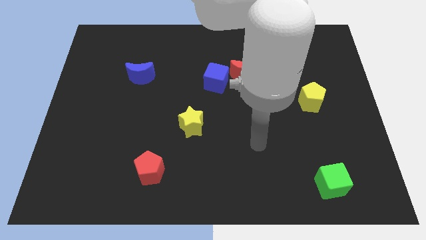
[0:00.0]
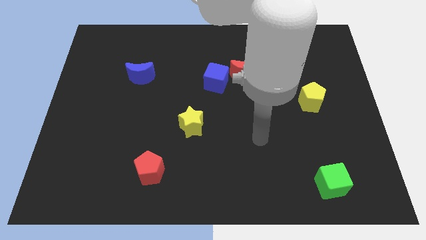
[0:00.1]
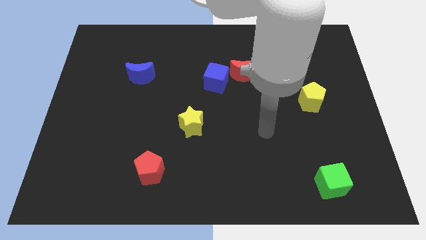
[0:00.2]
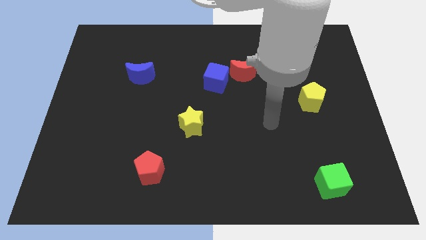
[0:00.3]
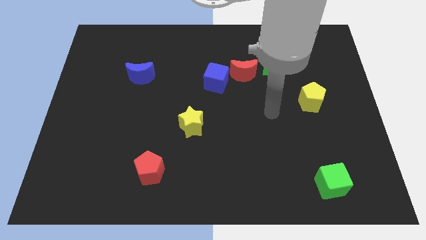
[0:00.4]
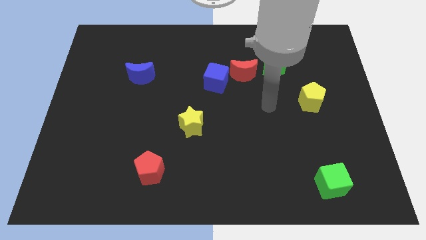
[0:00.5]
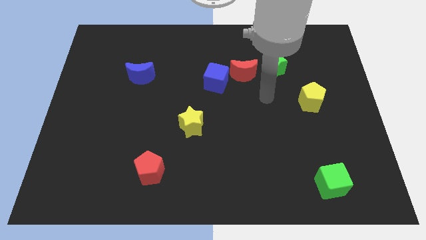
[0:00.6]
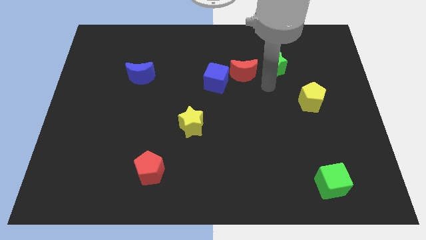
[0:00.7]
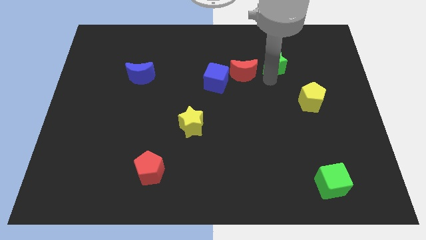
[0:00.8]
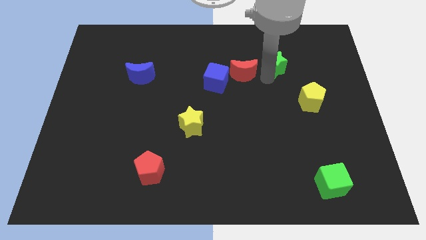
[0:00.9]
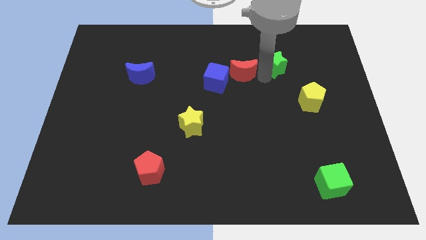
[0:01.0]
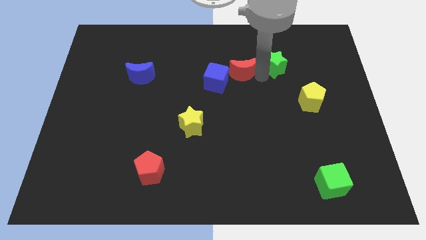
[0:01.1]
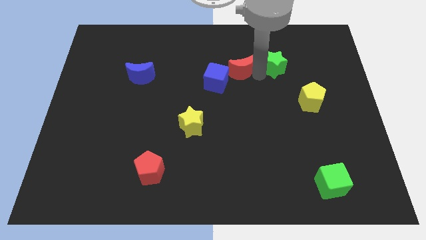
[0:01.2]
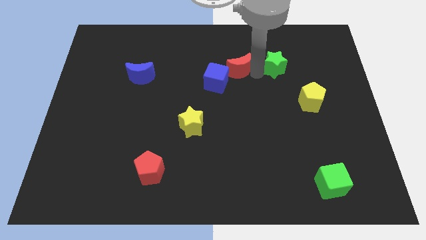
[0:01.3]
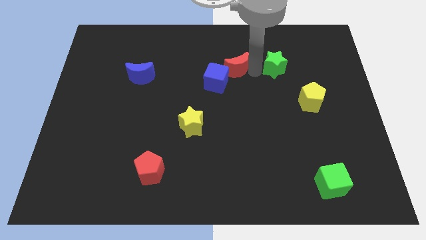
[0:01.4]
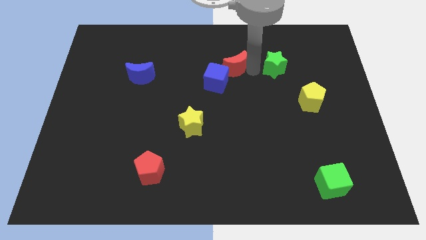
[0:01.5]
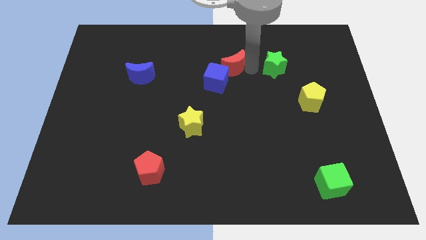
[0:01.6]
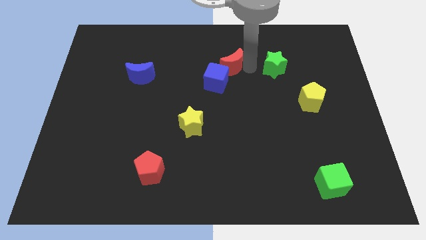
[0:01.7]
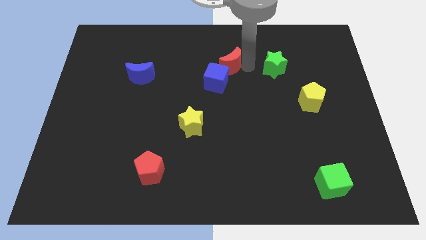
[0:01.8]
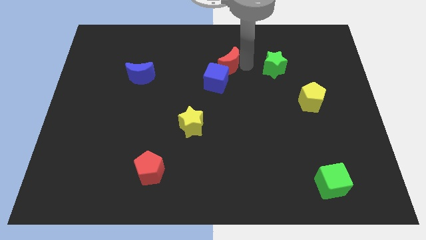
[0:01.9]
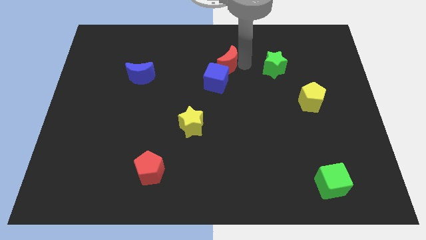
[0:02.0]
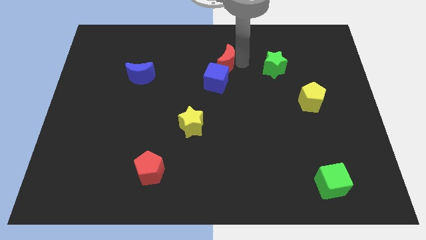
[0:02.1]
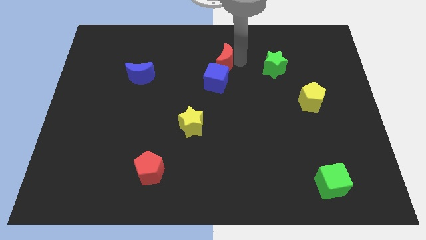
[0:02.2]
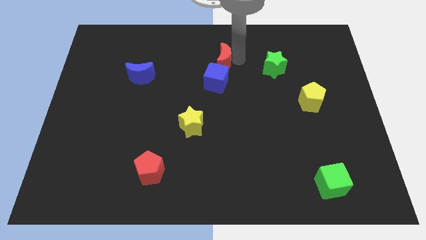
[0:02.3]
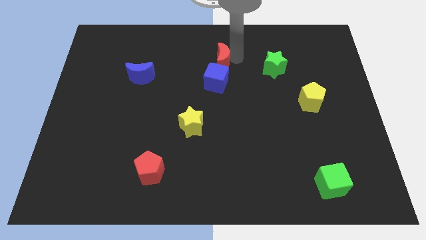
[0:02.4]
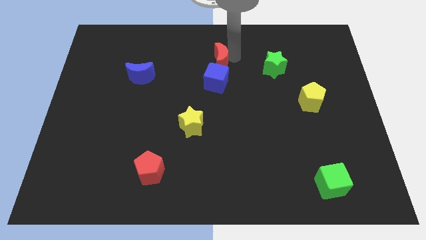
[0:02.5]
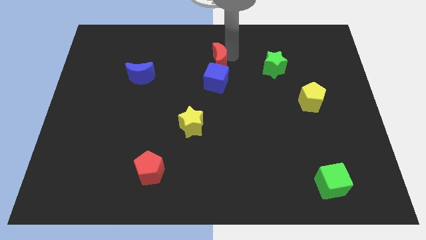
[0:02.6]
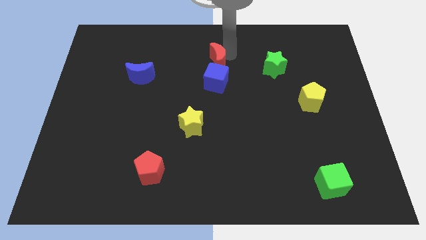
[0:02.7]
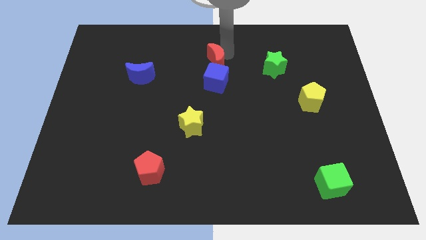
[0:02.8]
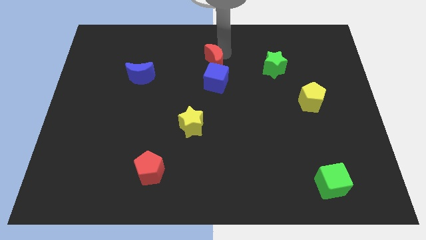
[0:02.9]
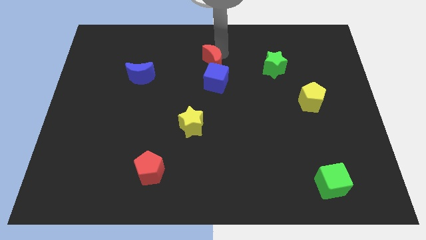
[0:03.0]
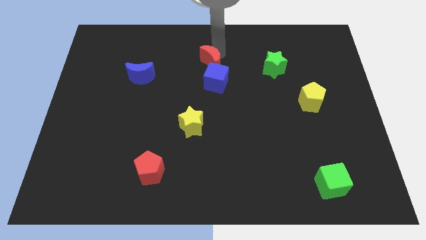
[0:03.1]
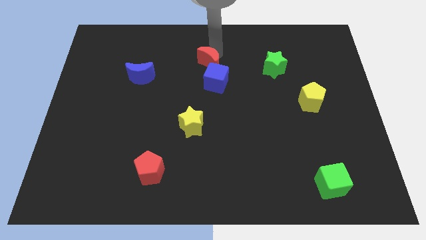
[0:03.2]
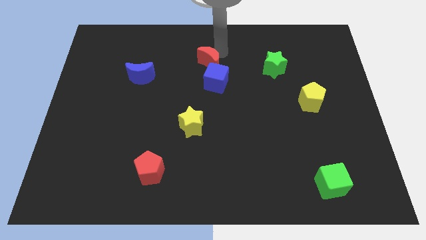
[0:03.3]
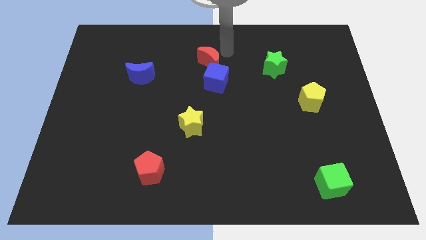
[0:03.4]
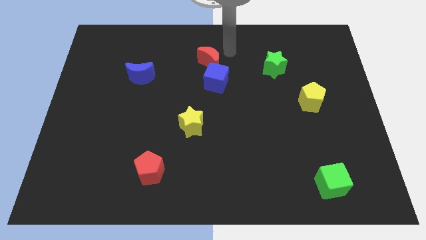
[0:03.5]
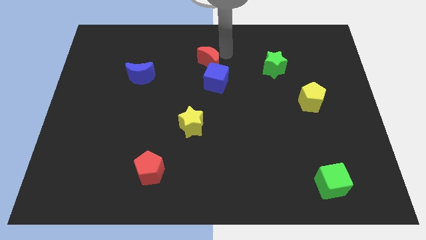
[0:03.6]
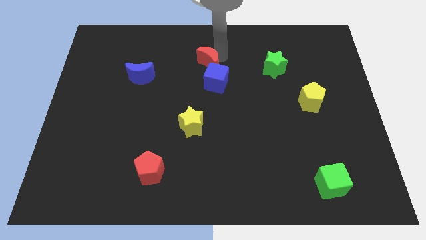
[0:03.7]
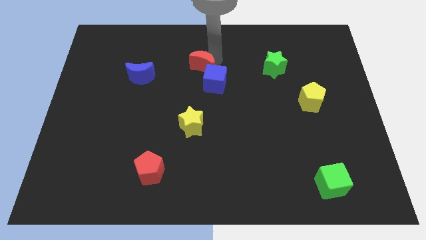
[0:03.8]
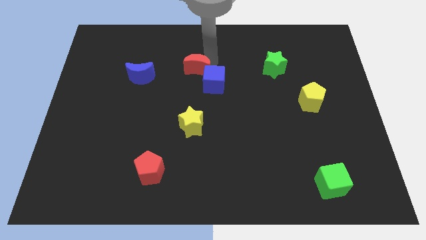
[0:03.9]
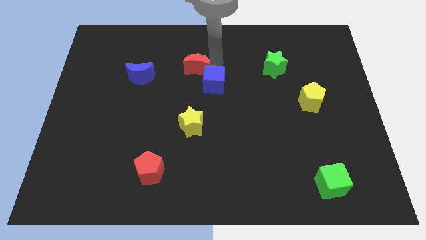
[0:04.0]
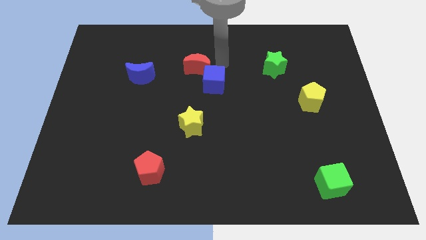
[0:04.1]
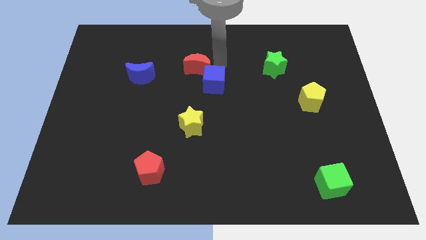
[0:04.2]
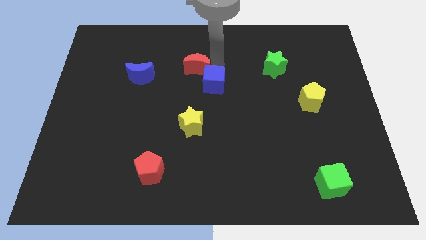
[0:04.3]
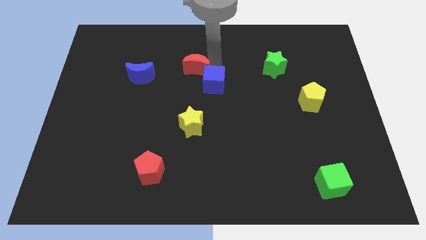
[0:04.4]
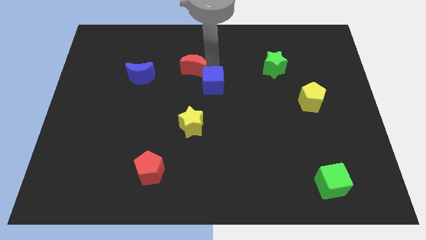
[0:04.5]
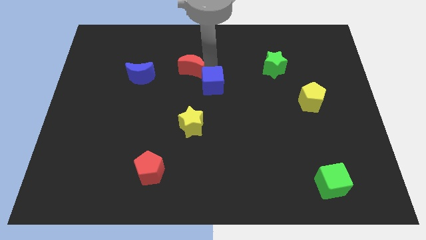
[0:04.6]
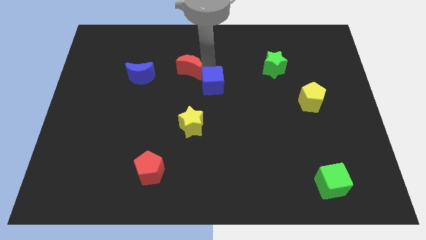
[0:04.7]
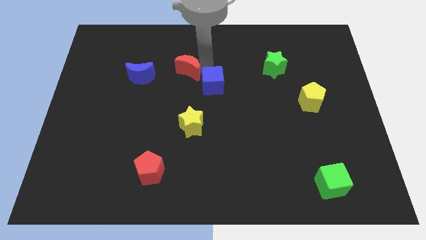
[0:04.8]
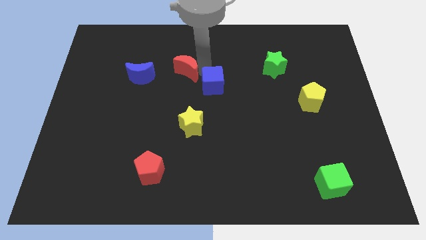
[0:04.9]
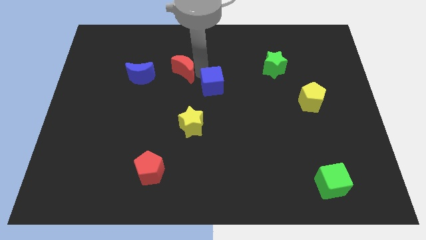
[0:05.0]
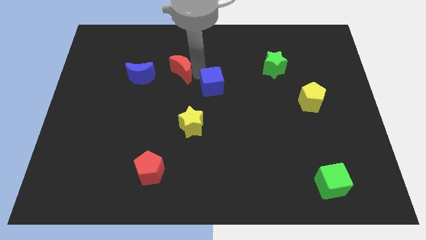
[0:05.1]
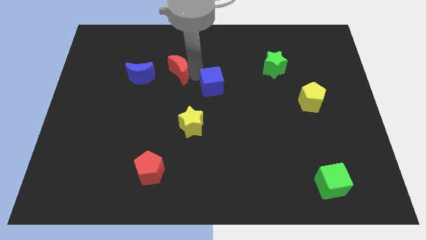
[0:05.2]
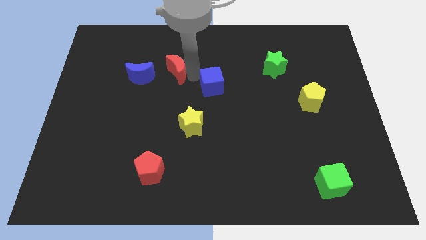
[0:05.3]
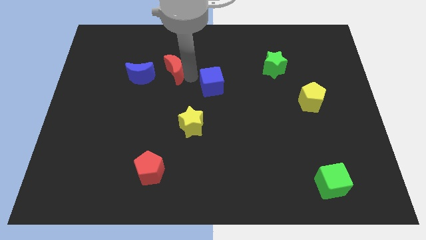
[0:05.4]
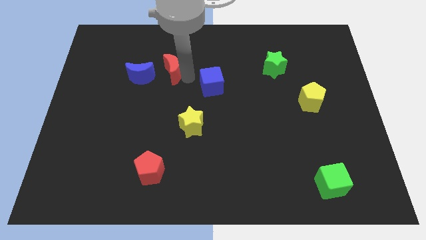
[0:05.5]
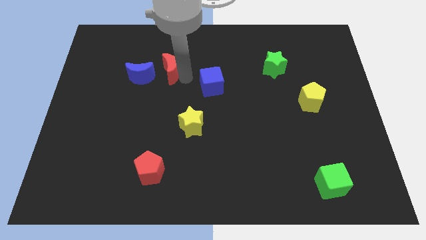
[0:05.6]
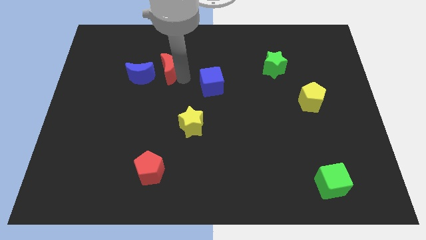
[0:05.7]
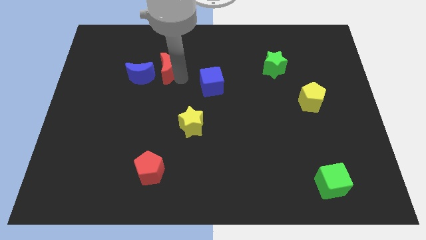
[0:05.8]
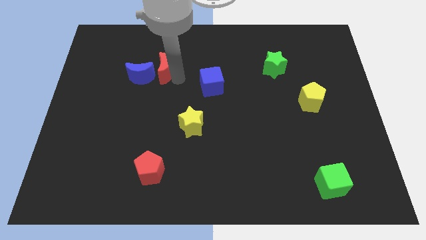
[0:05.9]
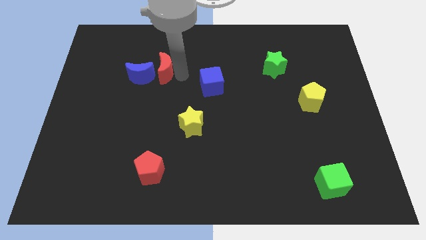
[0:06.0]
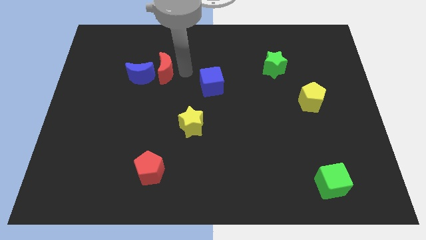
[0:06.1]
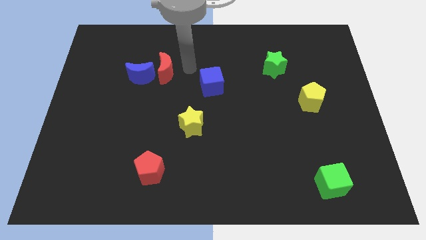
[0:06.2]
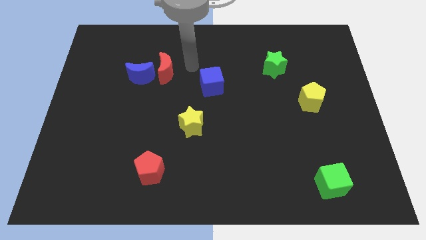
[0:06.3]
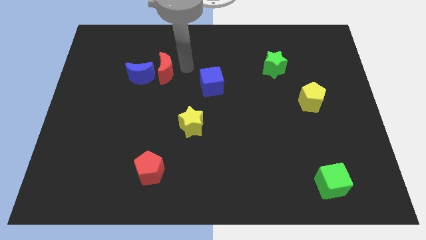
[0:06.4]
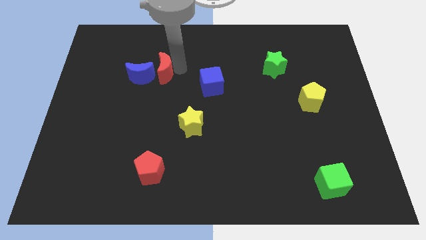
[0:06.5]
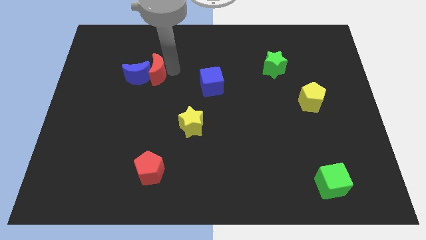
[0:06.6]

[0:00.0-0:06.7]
slide the red moon to the blue moon
